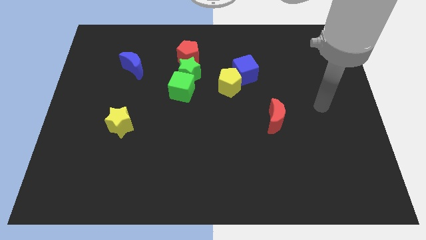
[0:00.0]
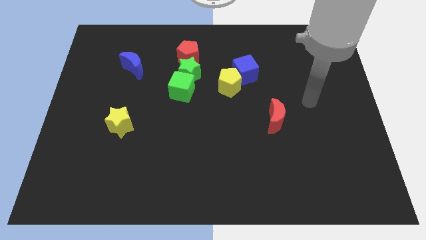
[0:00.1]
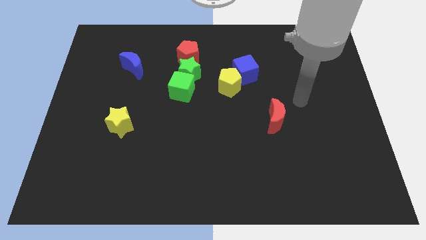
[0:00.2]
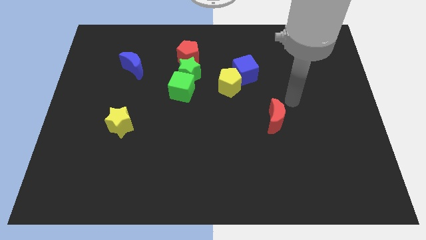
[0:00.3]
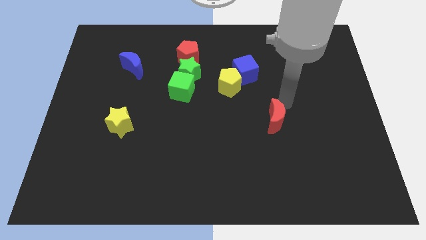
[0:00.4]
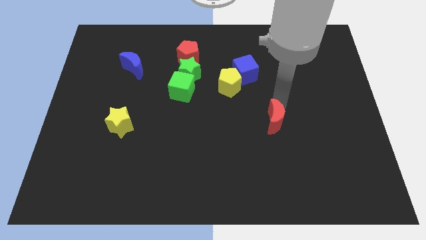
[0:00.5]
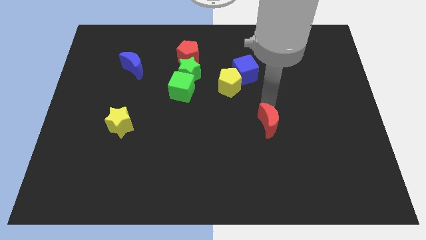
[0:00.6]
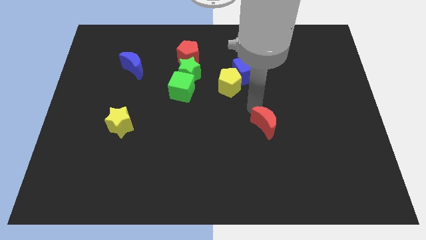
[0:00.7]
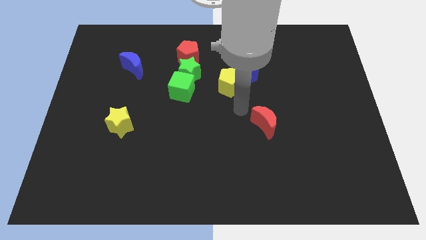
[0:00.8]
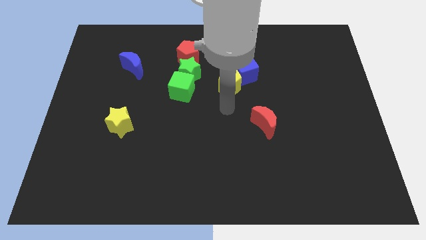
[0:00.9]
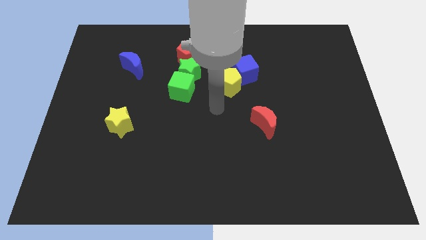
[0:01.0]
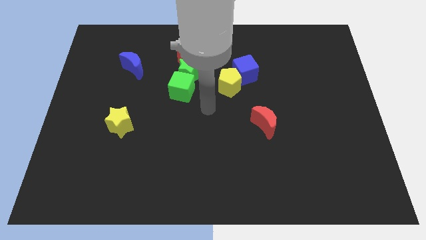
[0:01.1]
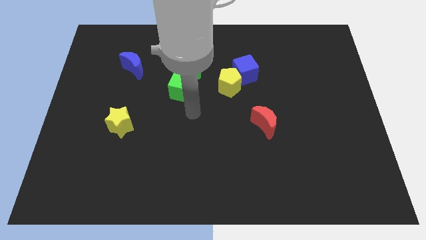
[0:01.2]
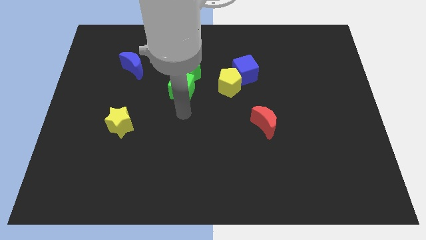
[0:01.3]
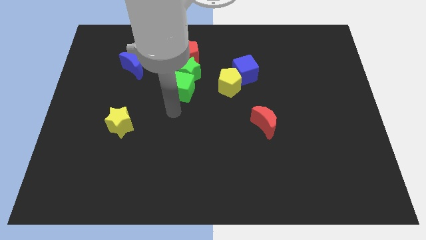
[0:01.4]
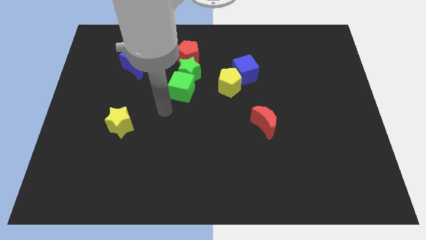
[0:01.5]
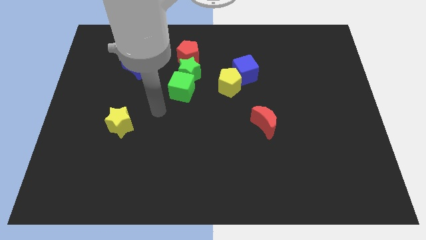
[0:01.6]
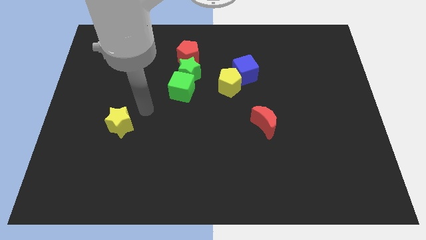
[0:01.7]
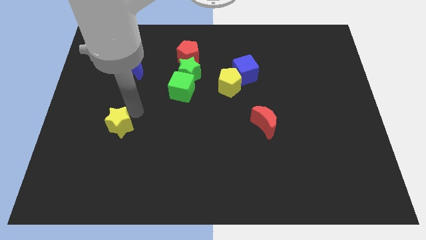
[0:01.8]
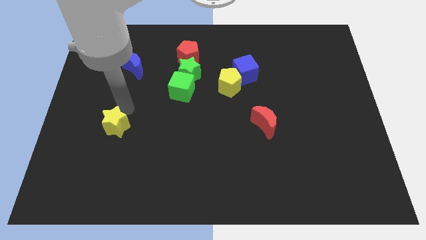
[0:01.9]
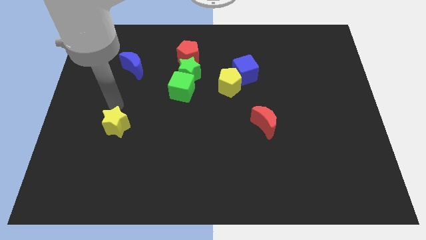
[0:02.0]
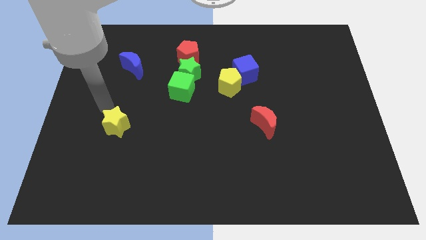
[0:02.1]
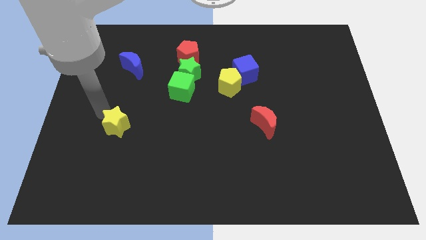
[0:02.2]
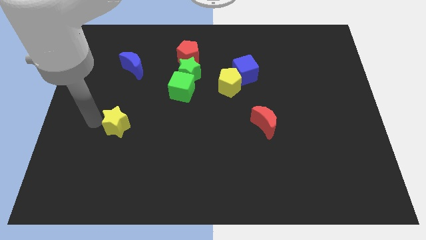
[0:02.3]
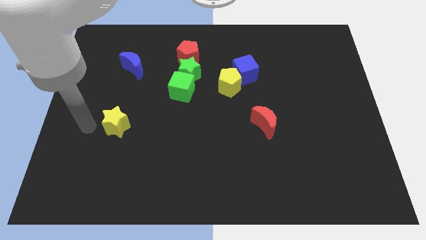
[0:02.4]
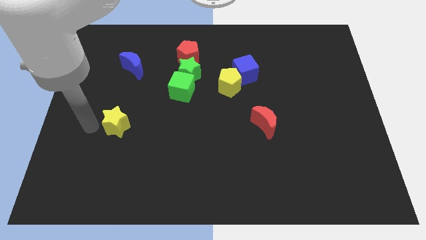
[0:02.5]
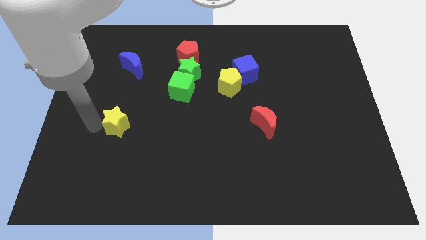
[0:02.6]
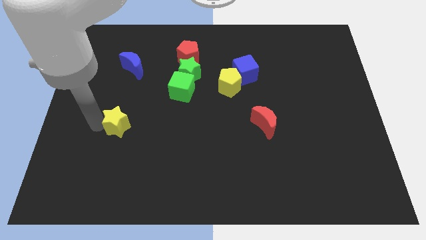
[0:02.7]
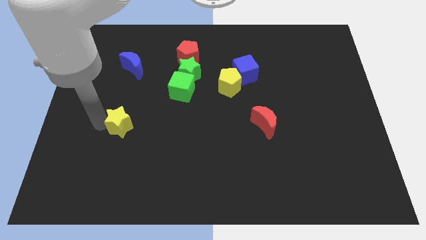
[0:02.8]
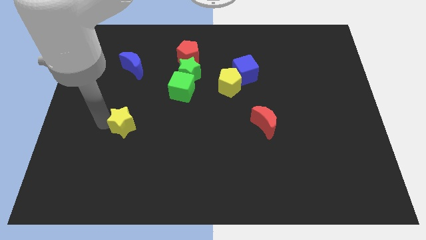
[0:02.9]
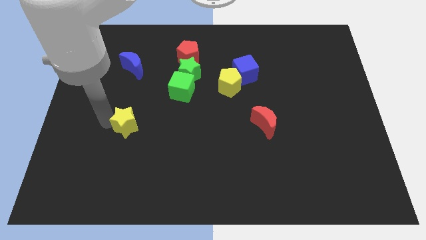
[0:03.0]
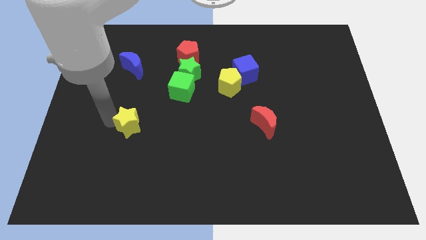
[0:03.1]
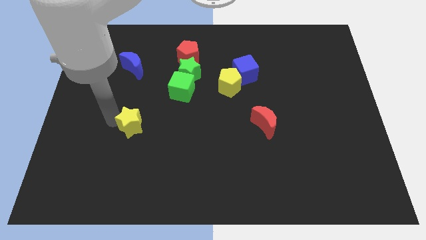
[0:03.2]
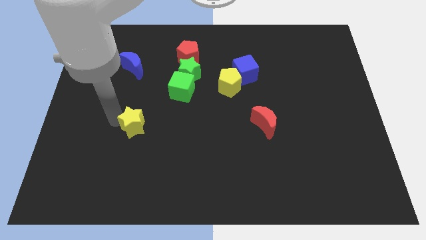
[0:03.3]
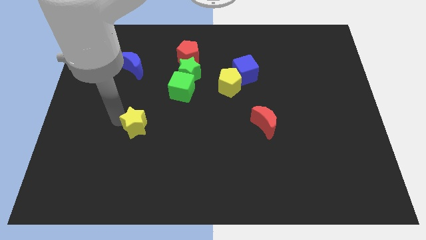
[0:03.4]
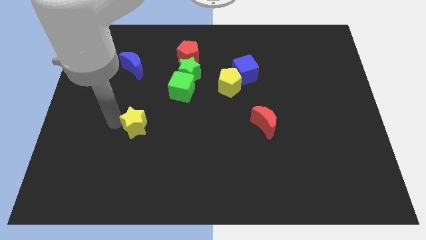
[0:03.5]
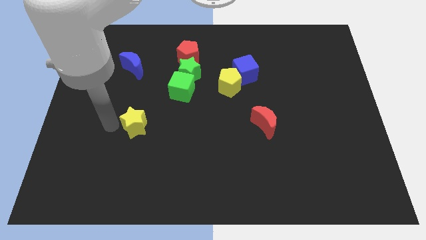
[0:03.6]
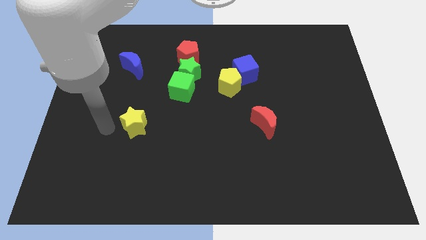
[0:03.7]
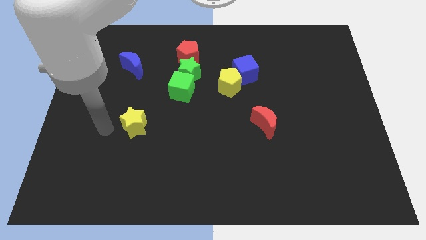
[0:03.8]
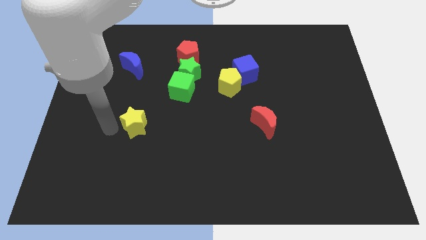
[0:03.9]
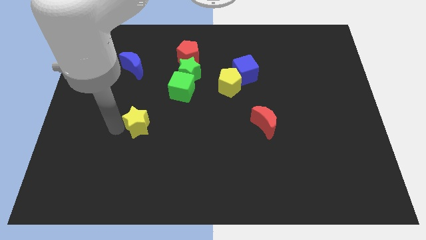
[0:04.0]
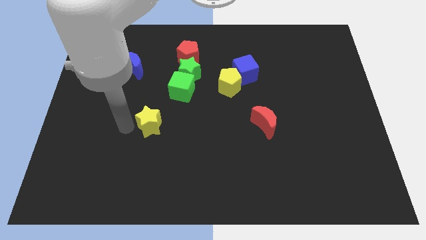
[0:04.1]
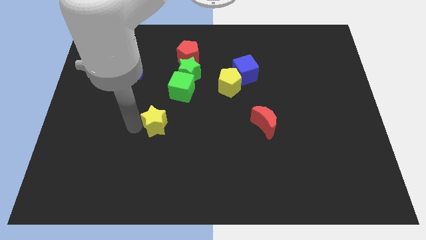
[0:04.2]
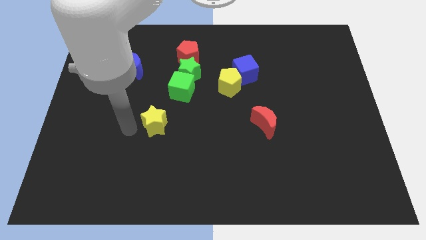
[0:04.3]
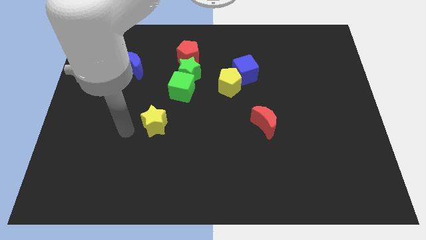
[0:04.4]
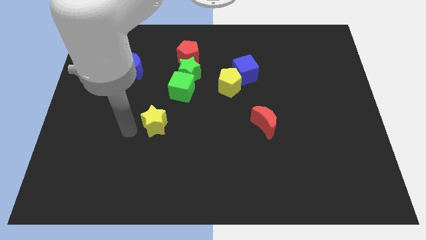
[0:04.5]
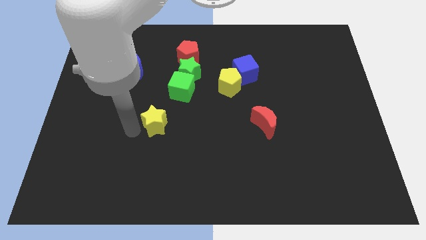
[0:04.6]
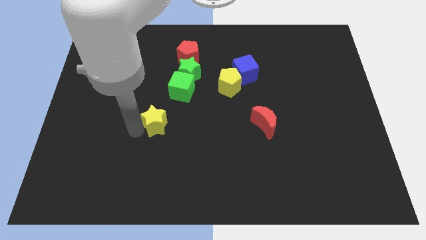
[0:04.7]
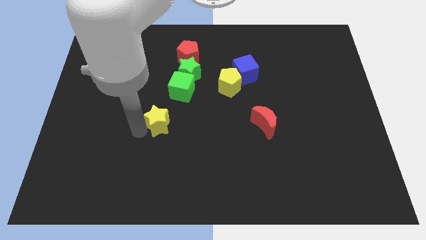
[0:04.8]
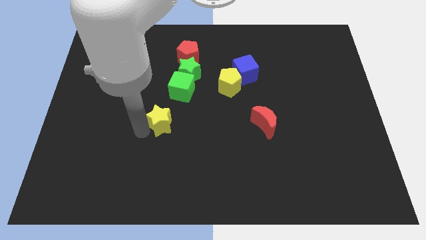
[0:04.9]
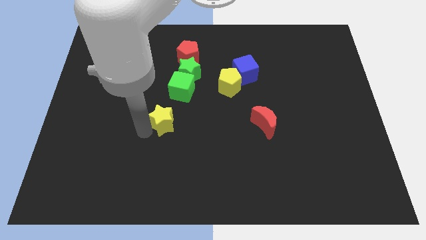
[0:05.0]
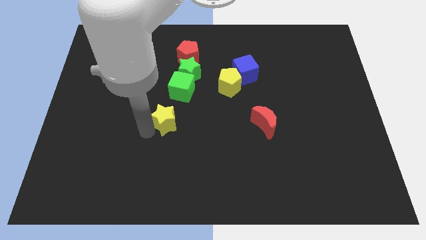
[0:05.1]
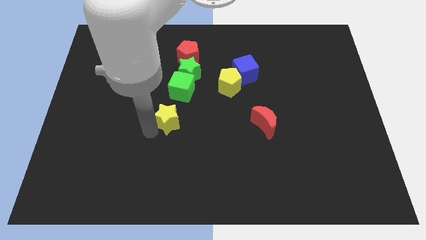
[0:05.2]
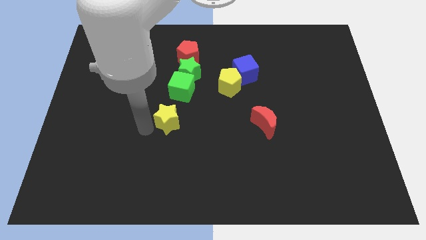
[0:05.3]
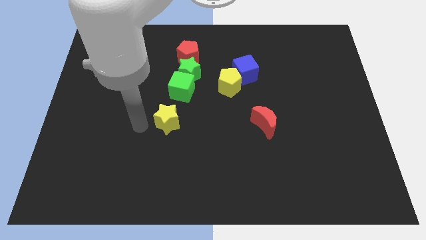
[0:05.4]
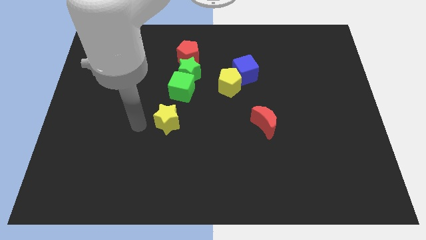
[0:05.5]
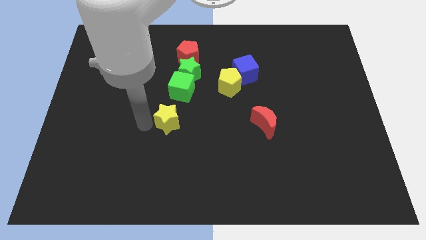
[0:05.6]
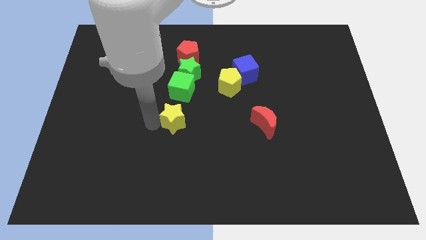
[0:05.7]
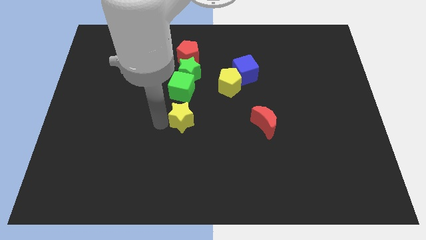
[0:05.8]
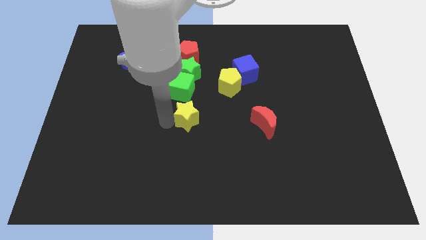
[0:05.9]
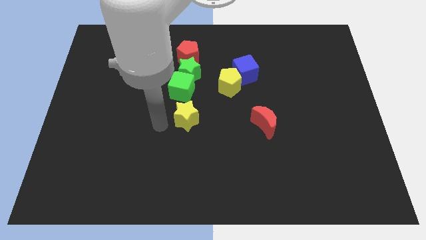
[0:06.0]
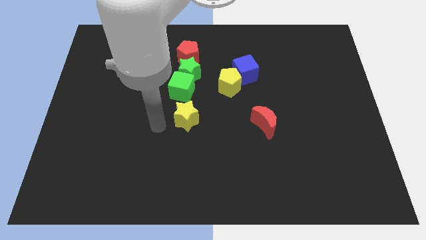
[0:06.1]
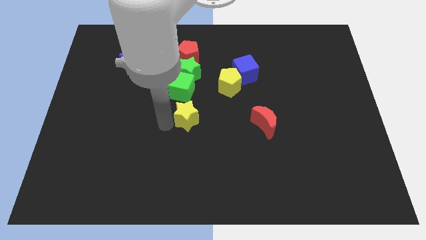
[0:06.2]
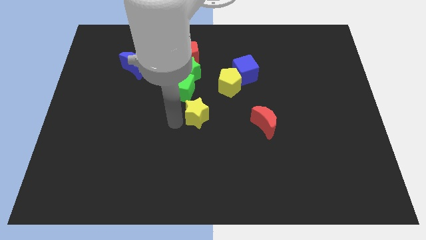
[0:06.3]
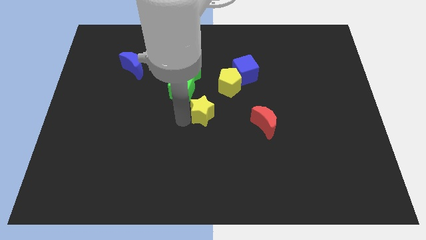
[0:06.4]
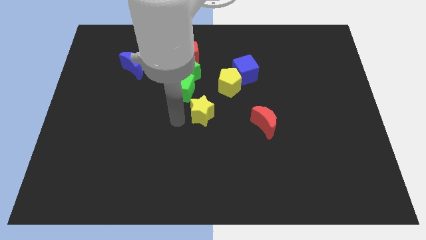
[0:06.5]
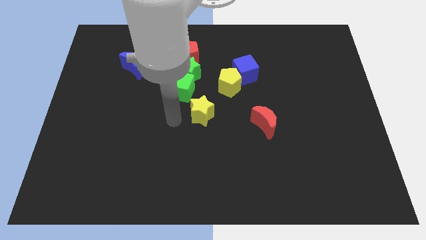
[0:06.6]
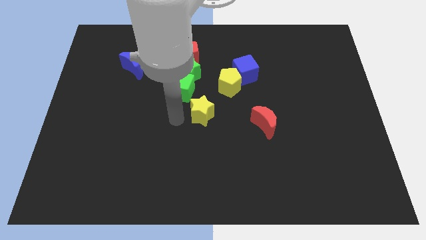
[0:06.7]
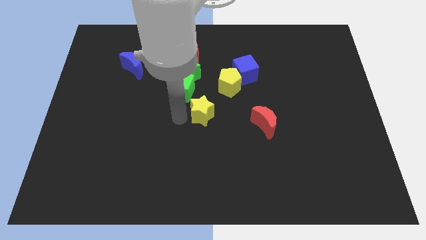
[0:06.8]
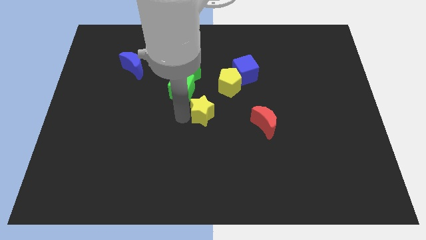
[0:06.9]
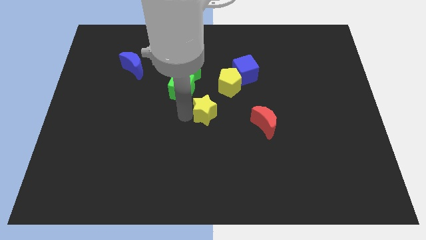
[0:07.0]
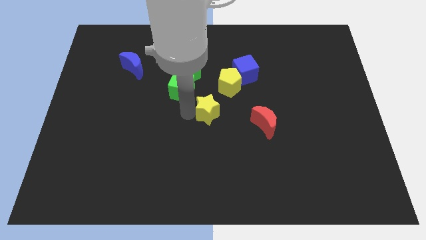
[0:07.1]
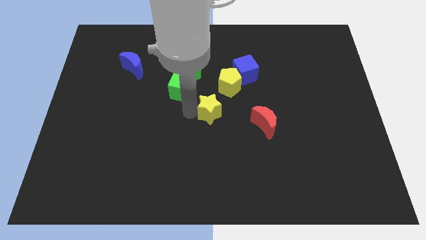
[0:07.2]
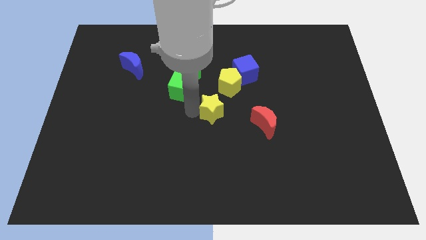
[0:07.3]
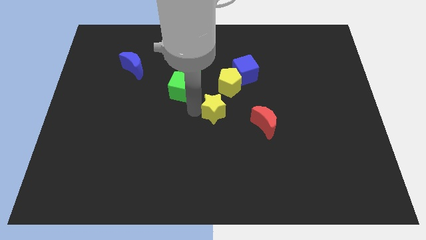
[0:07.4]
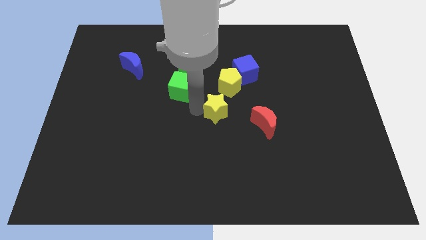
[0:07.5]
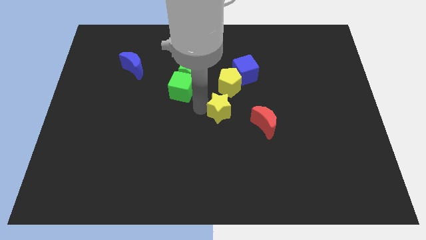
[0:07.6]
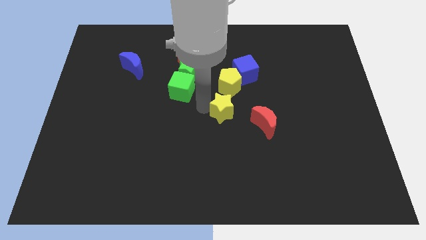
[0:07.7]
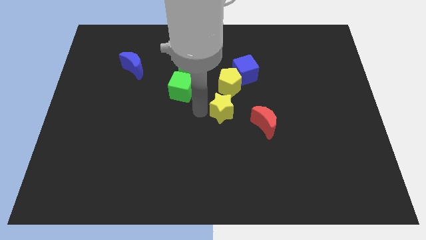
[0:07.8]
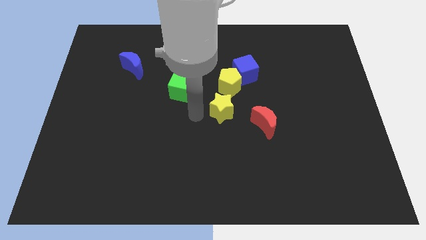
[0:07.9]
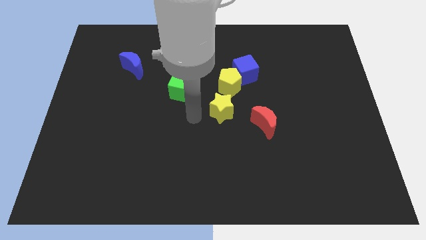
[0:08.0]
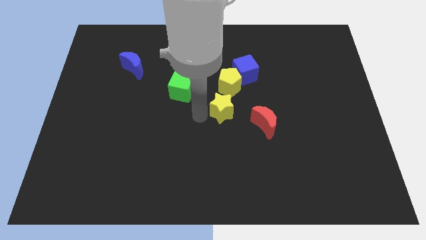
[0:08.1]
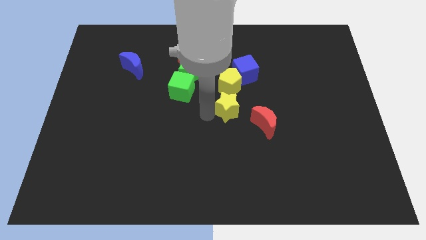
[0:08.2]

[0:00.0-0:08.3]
push the yellow star below the blue cube
